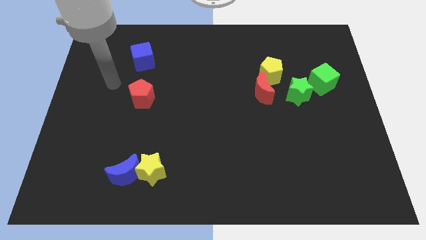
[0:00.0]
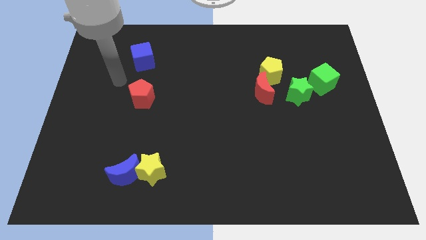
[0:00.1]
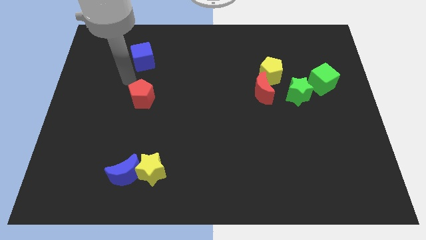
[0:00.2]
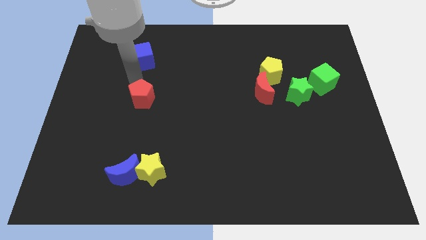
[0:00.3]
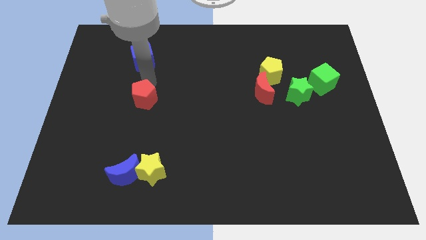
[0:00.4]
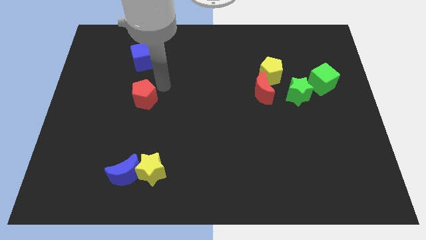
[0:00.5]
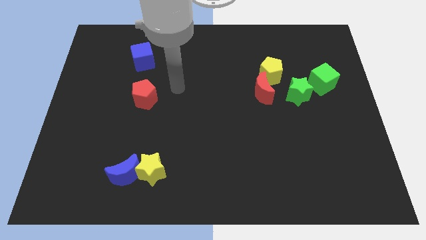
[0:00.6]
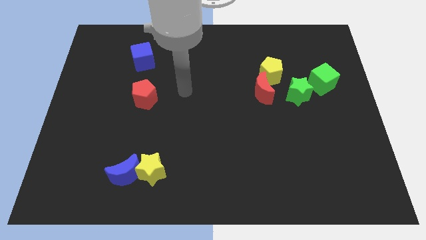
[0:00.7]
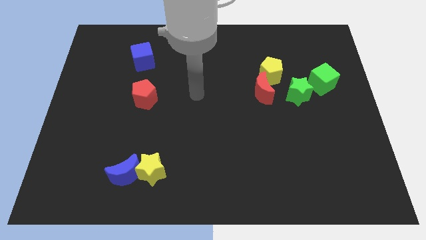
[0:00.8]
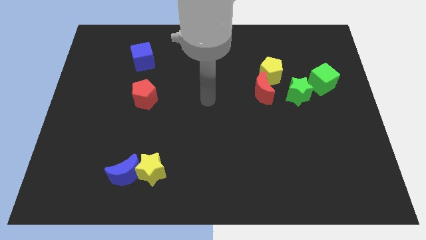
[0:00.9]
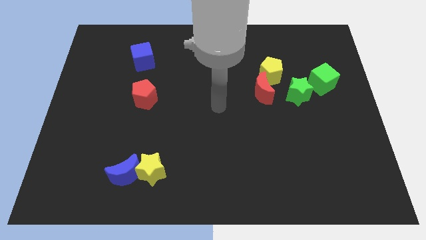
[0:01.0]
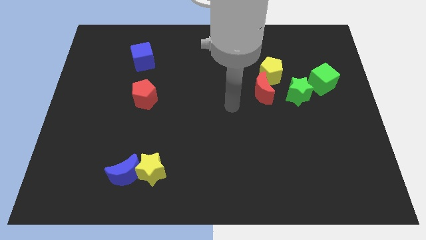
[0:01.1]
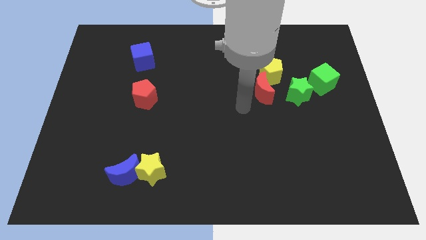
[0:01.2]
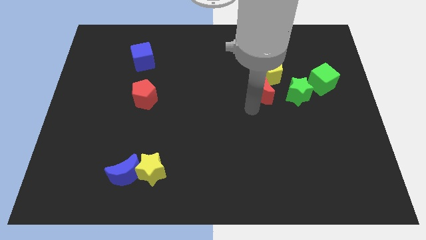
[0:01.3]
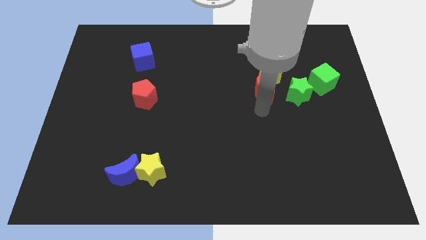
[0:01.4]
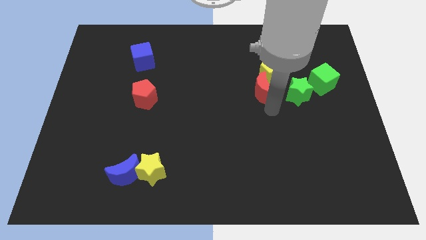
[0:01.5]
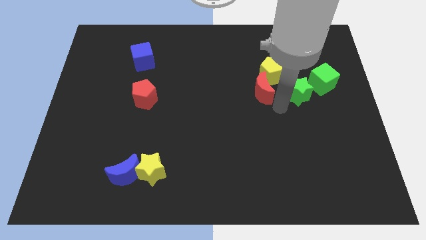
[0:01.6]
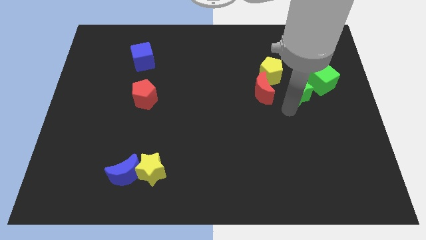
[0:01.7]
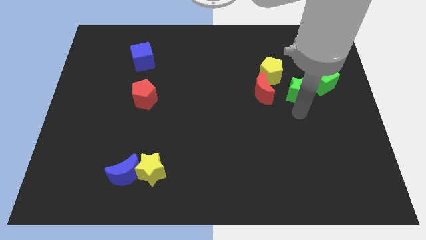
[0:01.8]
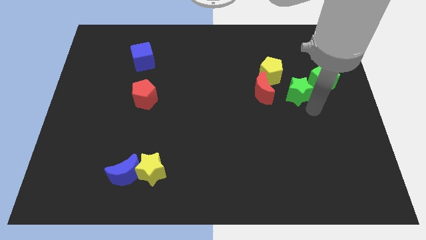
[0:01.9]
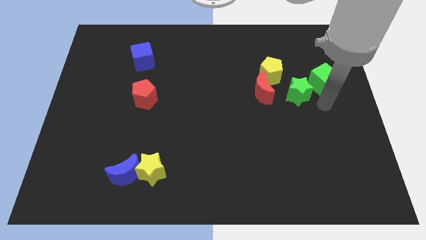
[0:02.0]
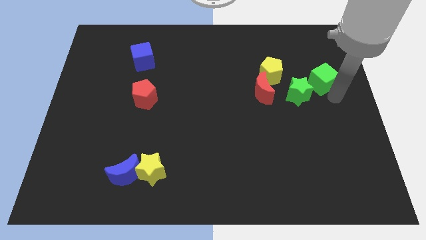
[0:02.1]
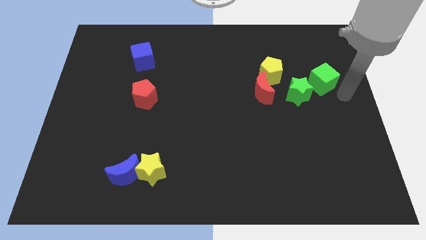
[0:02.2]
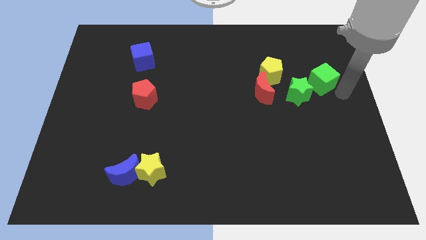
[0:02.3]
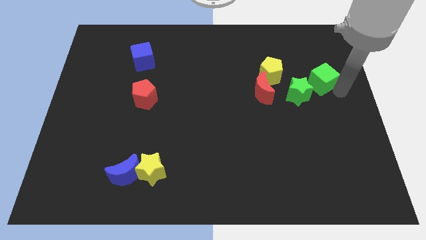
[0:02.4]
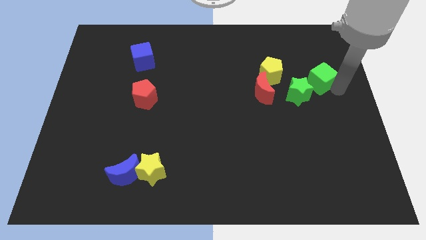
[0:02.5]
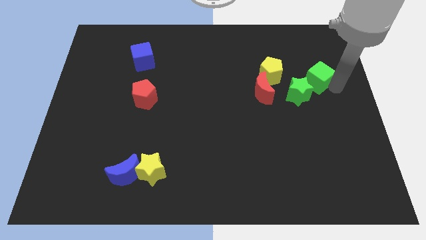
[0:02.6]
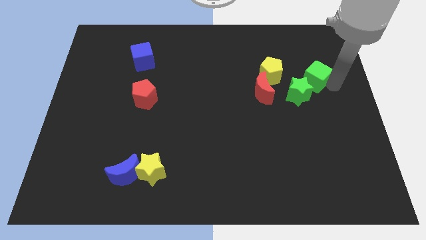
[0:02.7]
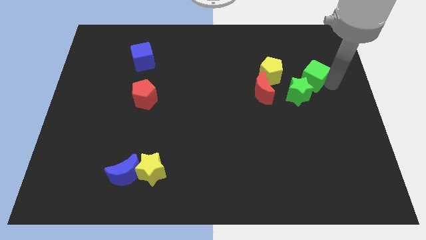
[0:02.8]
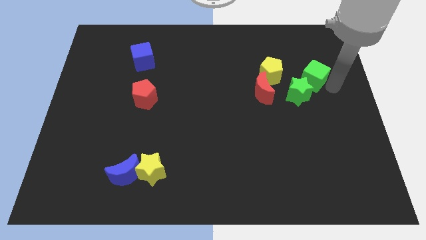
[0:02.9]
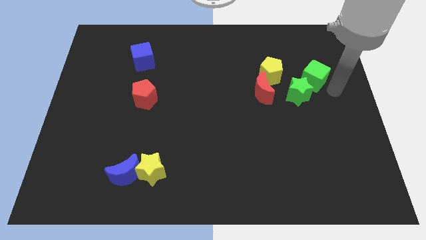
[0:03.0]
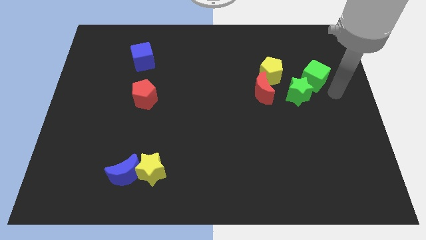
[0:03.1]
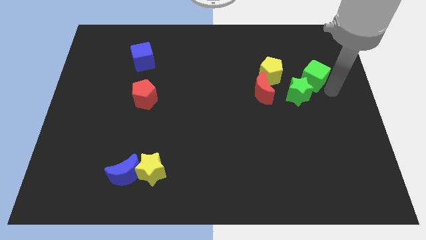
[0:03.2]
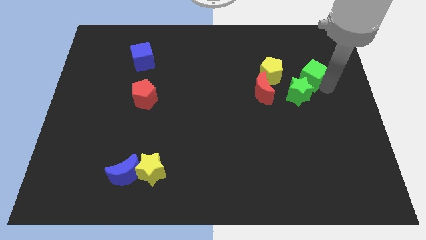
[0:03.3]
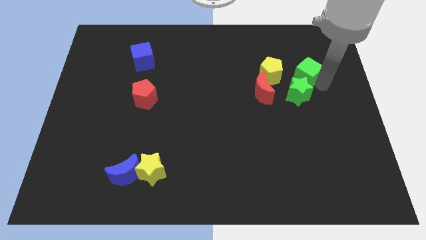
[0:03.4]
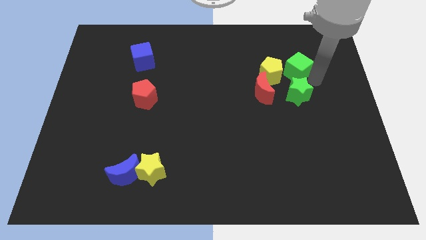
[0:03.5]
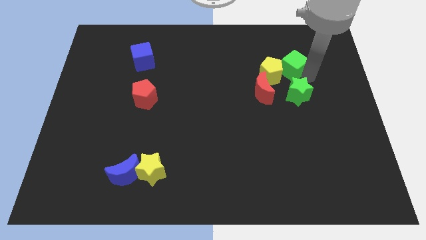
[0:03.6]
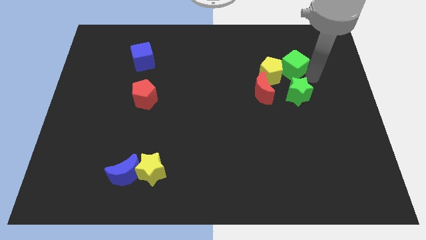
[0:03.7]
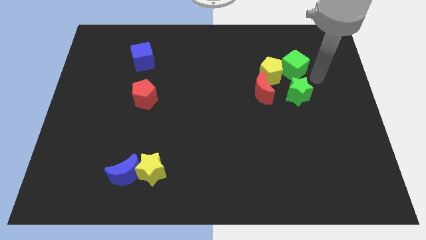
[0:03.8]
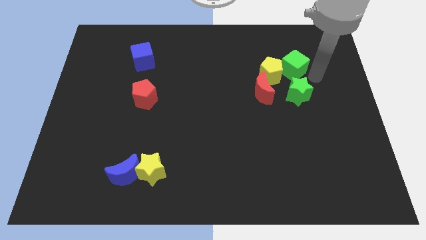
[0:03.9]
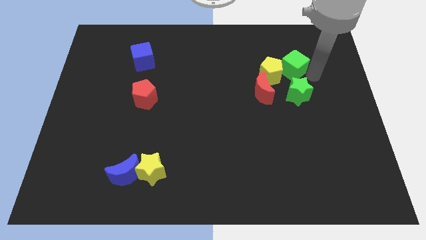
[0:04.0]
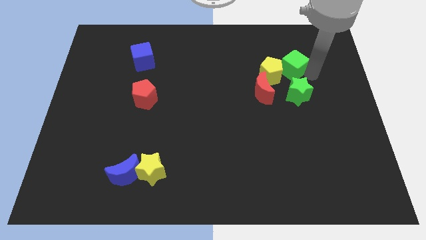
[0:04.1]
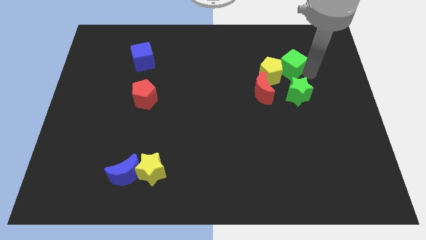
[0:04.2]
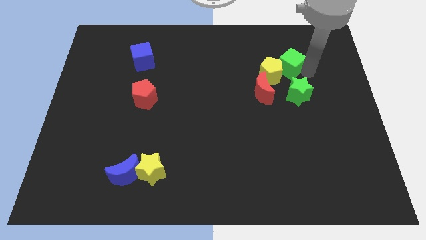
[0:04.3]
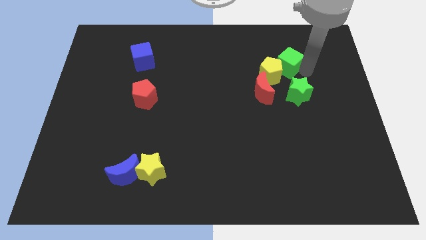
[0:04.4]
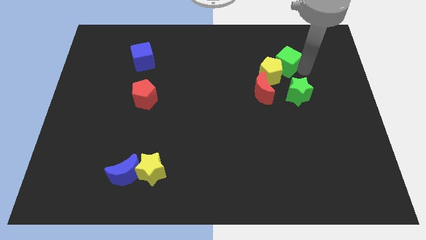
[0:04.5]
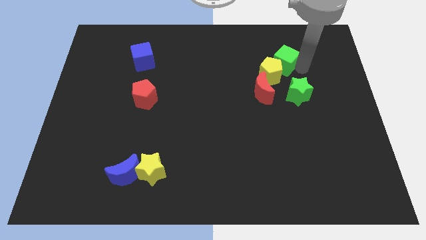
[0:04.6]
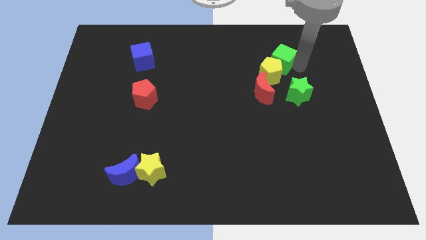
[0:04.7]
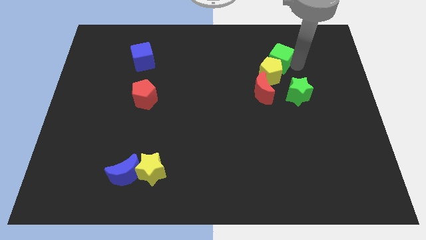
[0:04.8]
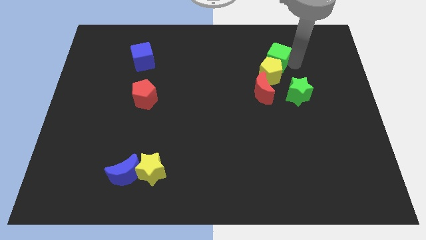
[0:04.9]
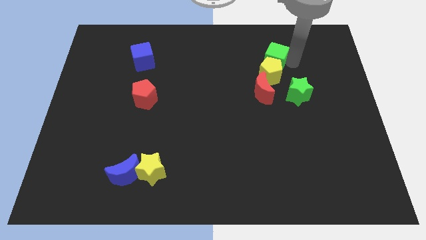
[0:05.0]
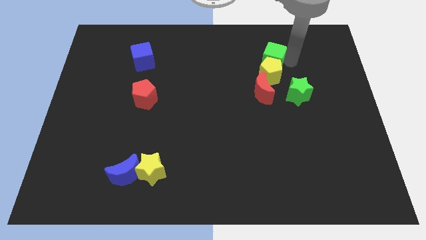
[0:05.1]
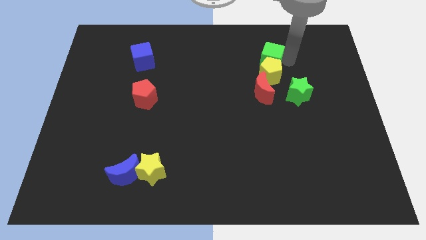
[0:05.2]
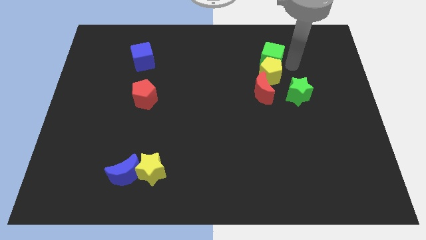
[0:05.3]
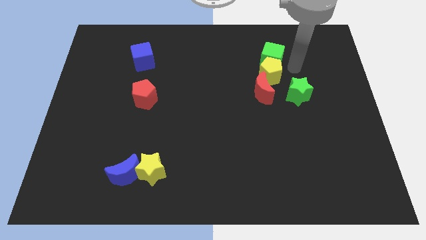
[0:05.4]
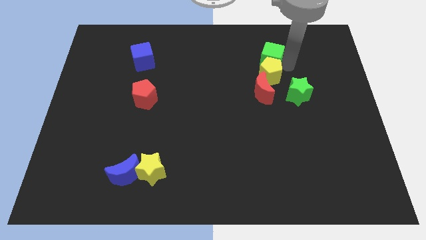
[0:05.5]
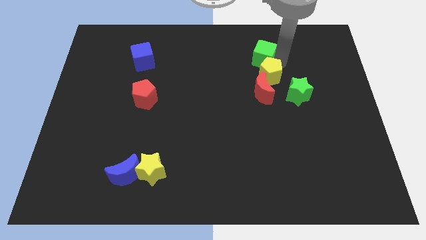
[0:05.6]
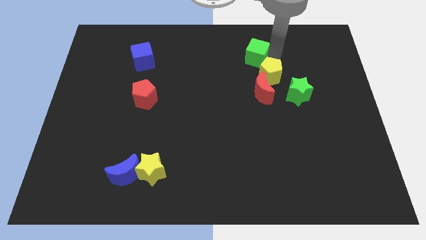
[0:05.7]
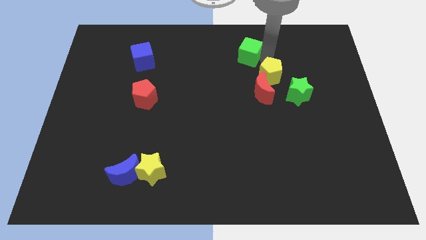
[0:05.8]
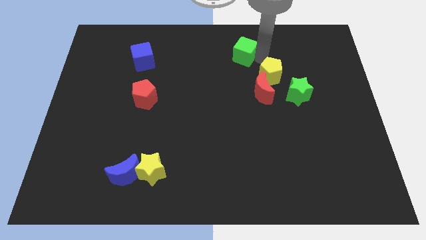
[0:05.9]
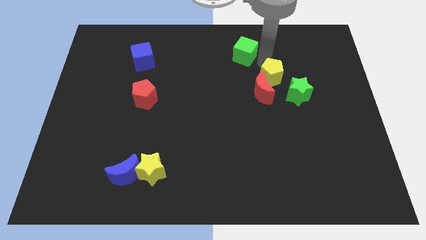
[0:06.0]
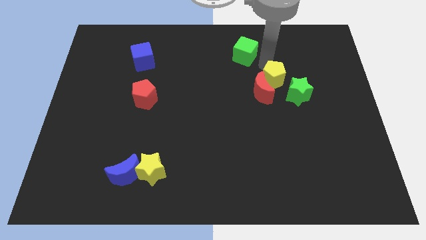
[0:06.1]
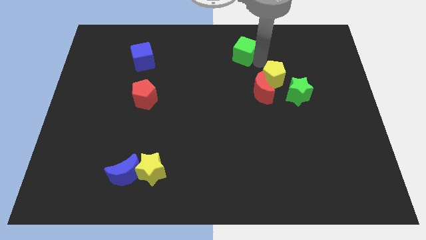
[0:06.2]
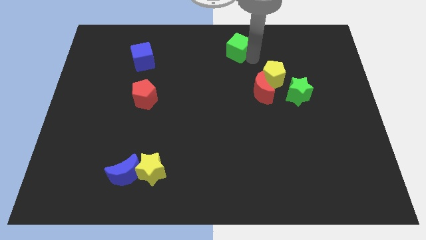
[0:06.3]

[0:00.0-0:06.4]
push the green cube to the top side
